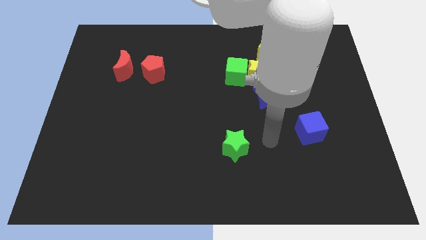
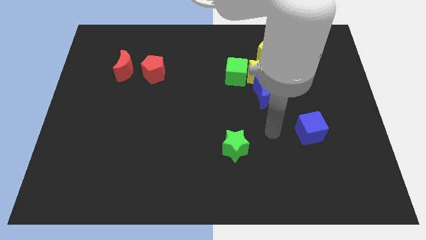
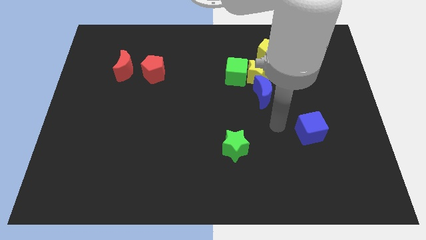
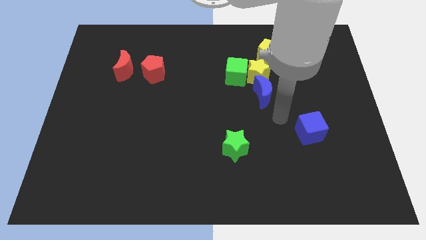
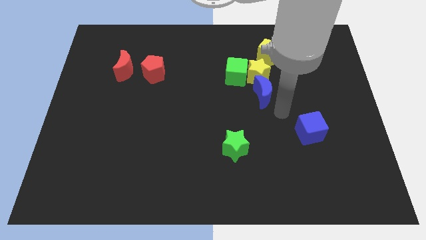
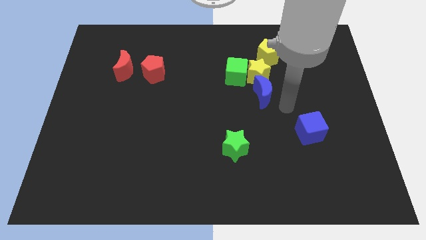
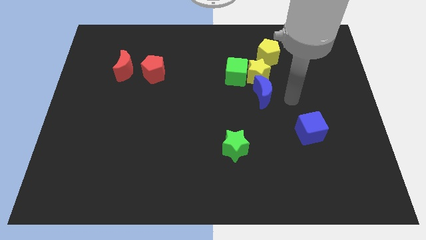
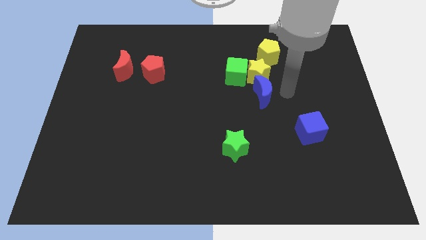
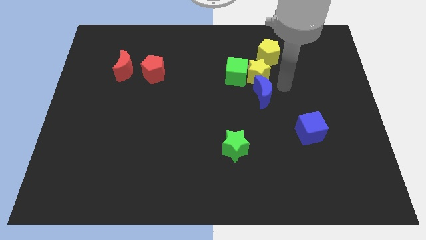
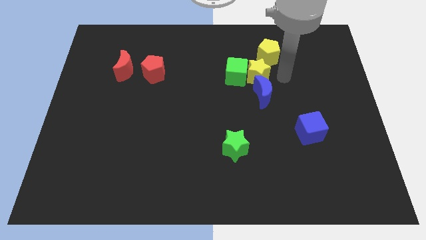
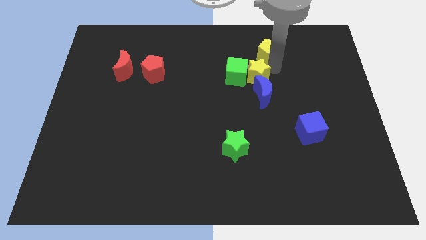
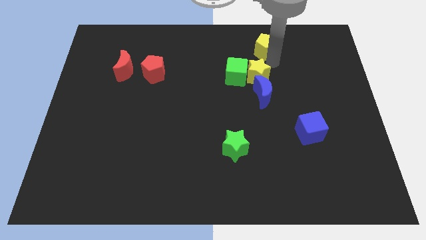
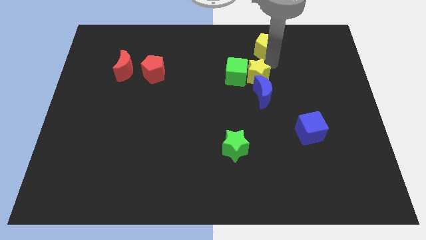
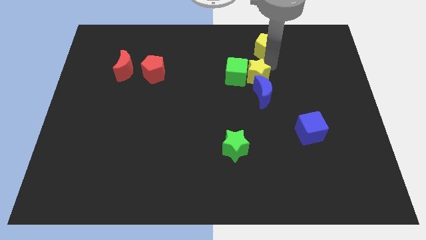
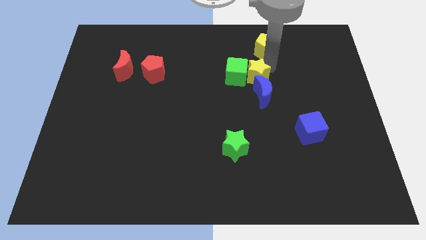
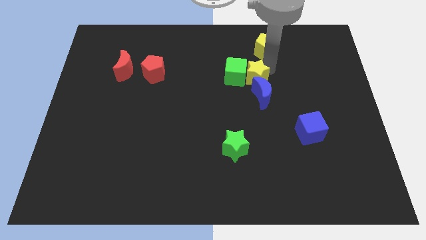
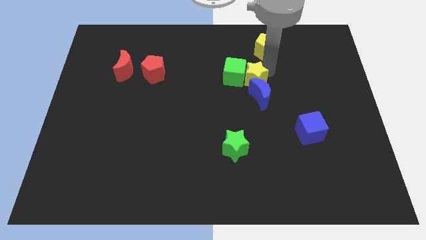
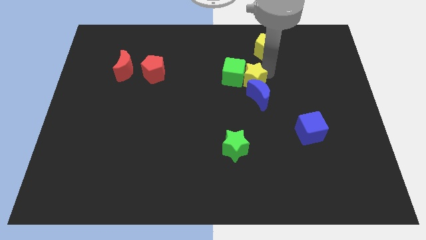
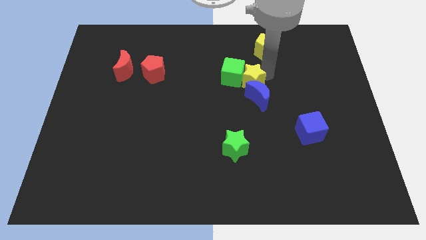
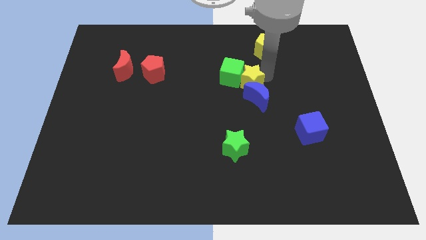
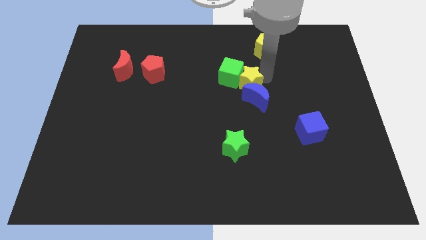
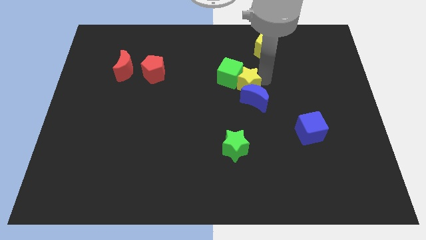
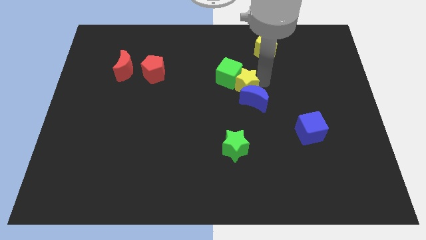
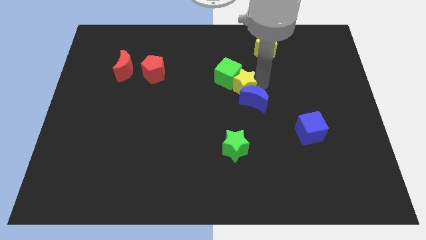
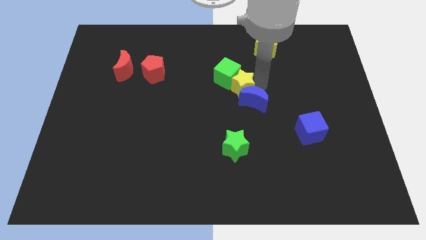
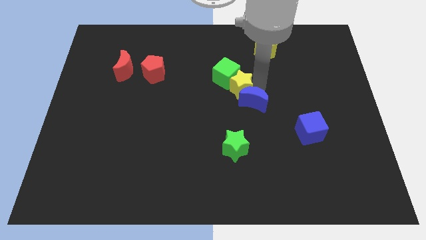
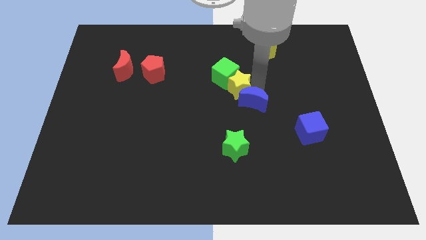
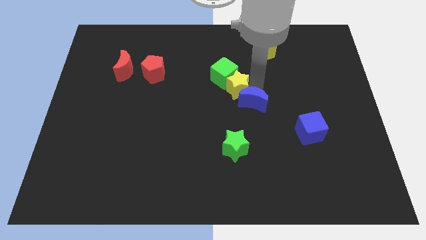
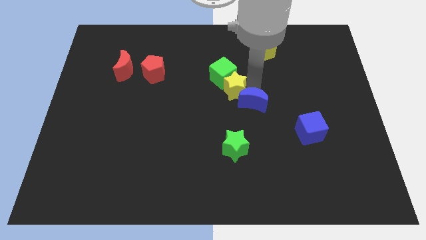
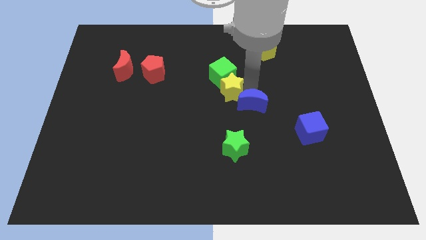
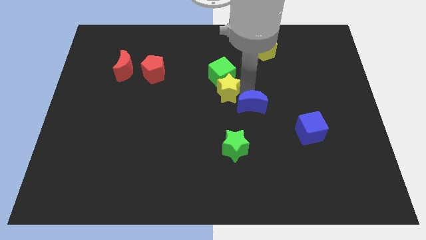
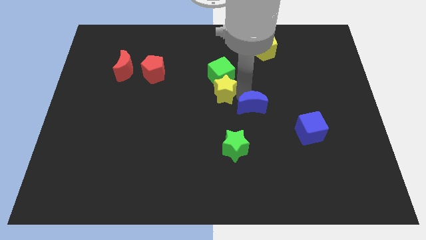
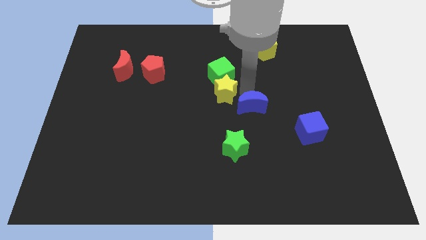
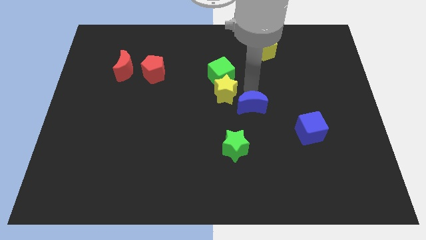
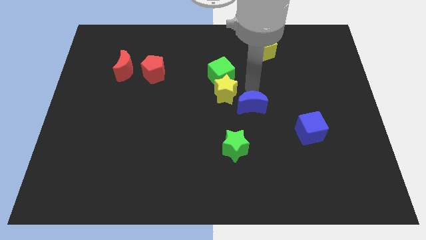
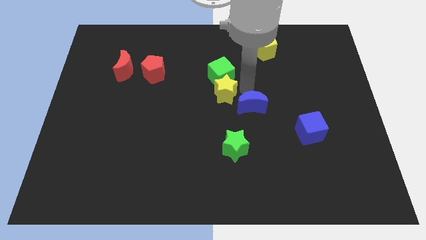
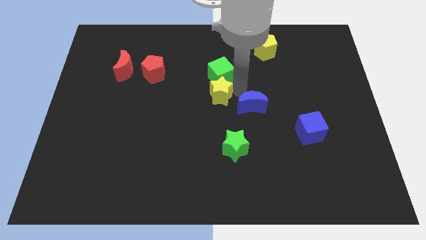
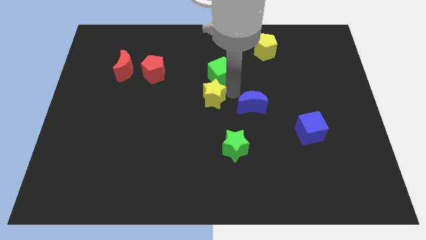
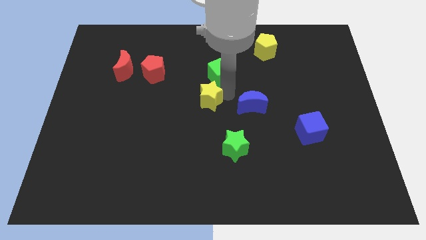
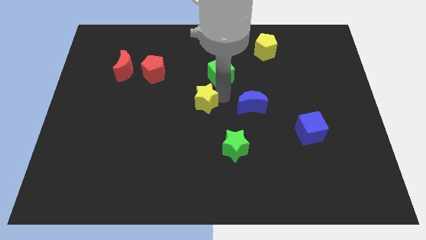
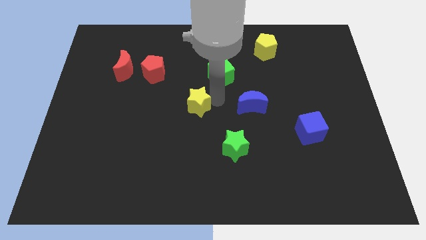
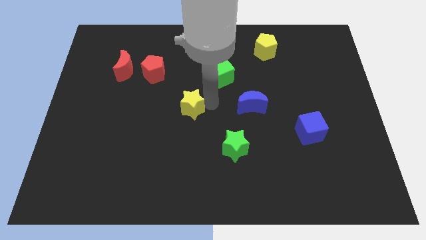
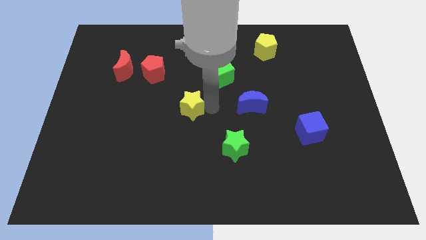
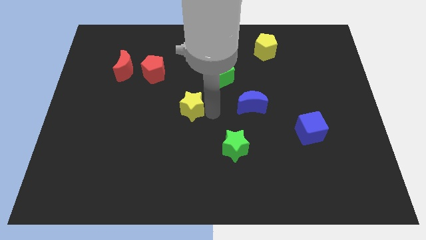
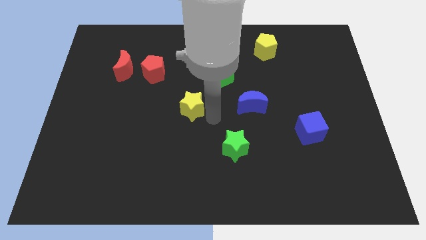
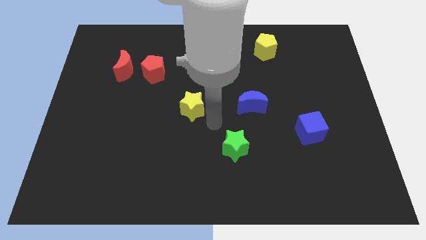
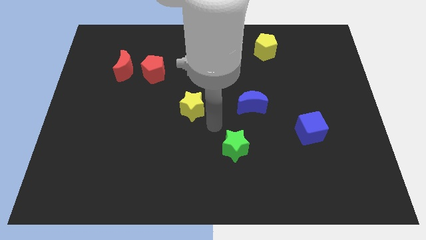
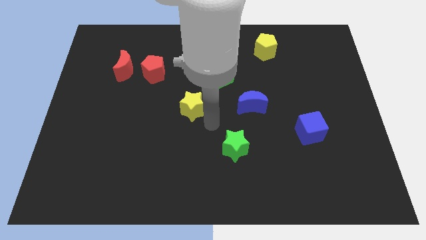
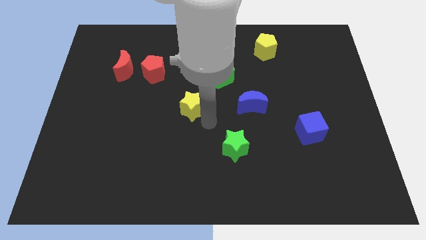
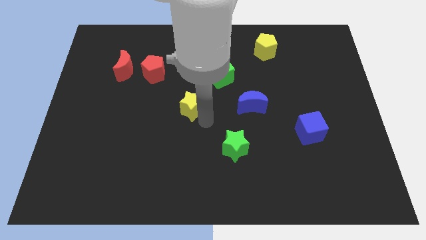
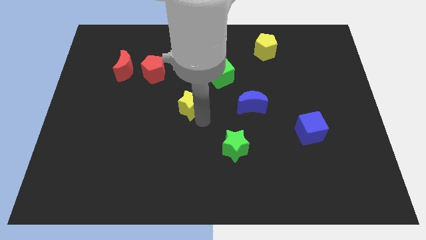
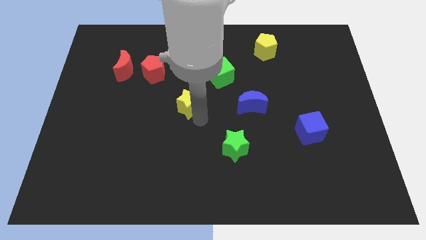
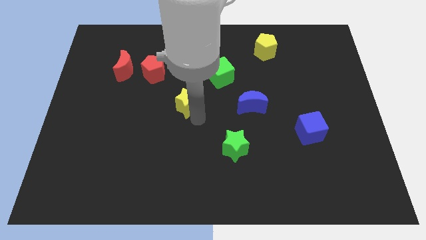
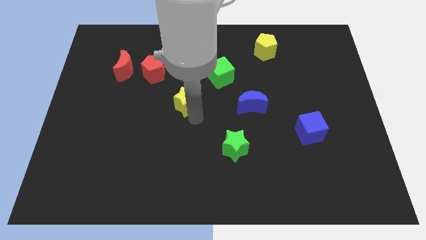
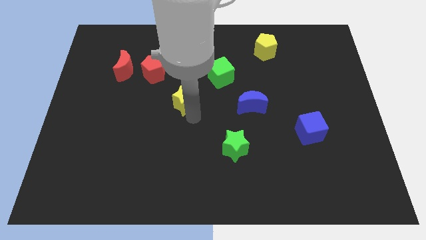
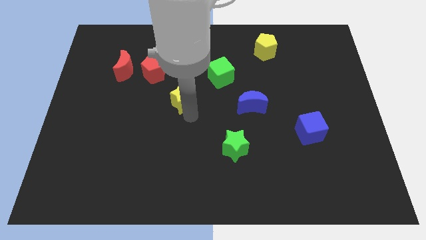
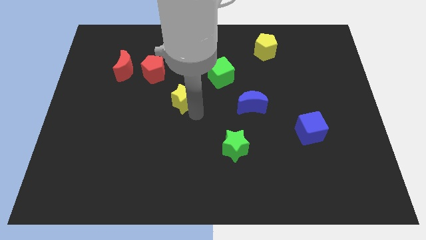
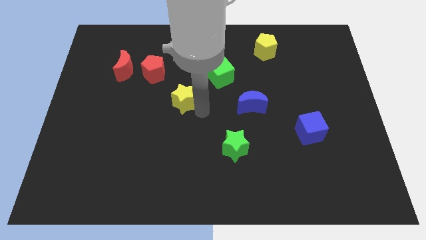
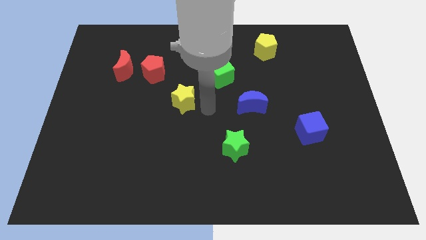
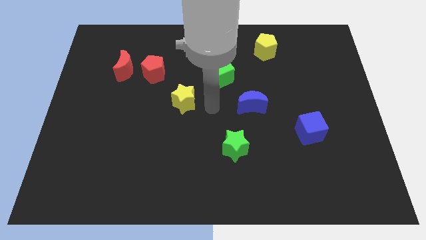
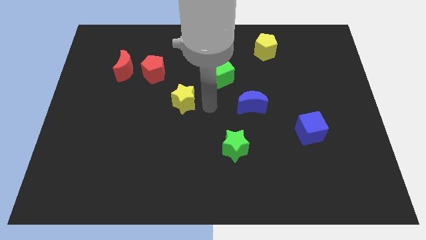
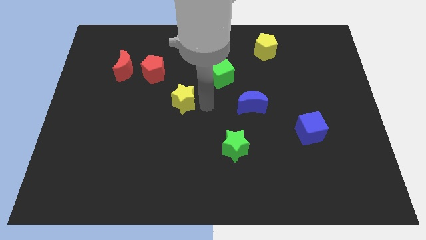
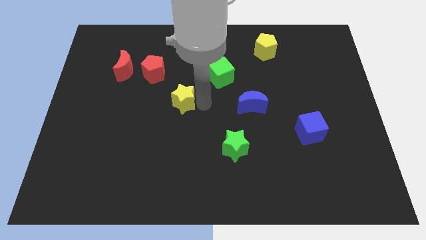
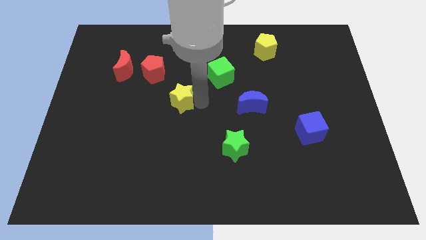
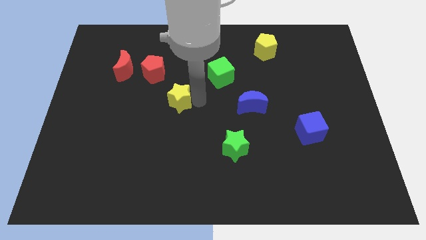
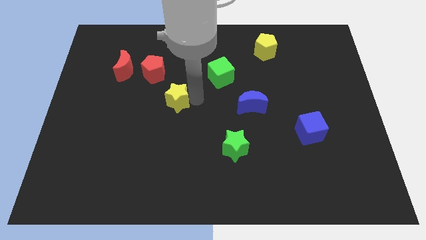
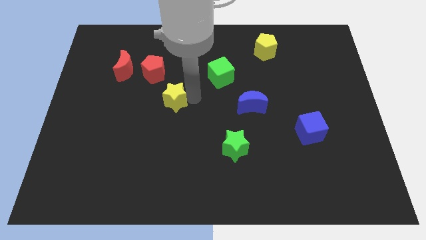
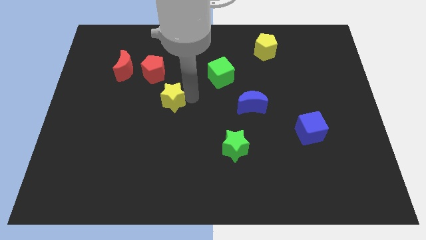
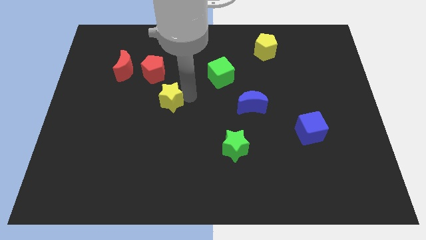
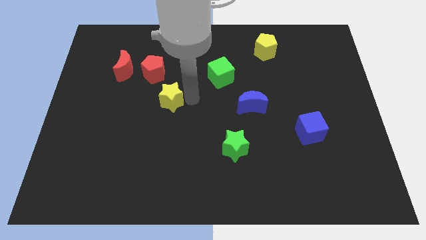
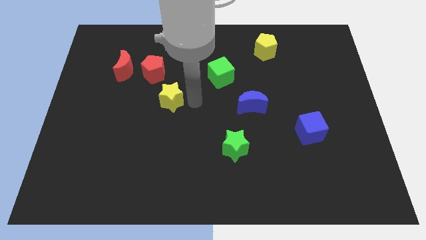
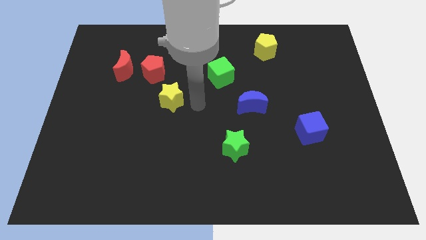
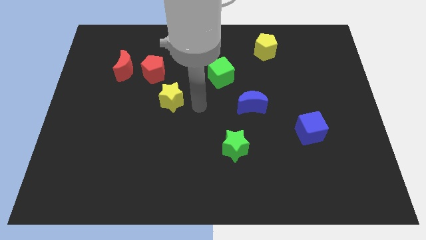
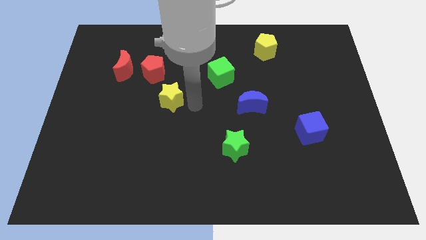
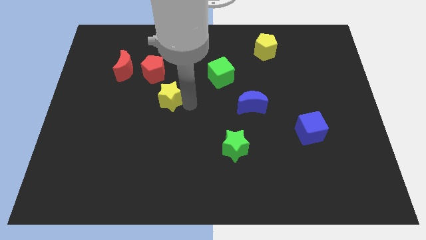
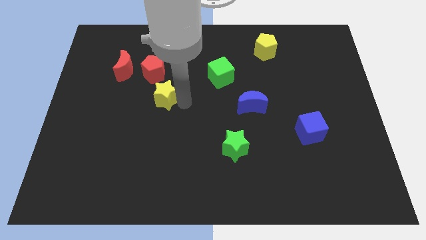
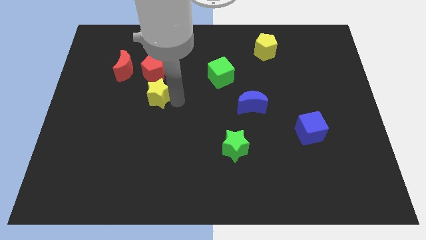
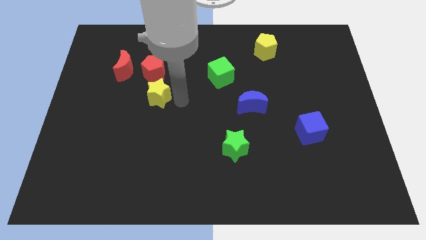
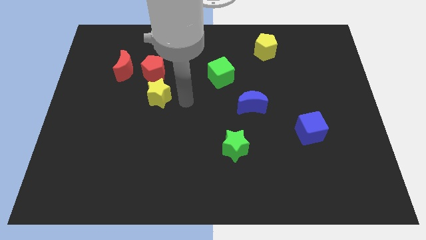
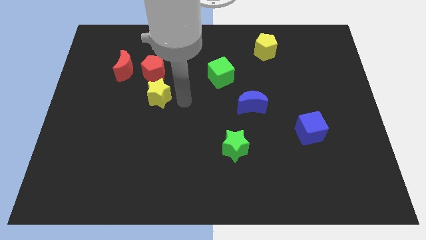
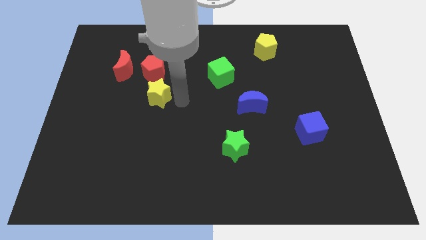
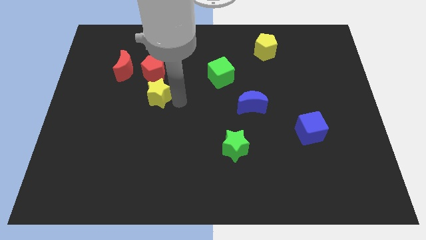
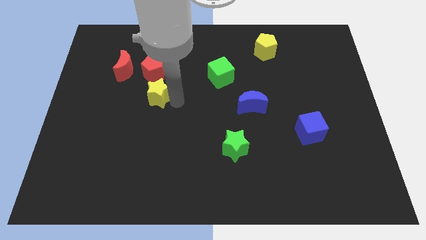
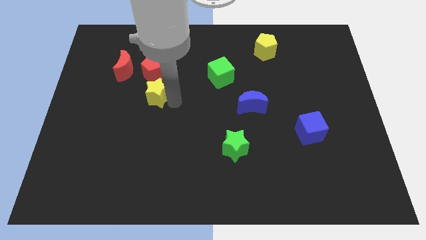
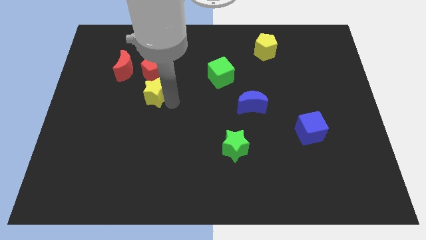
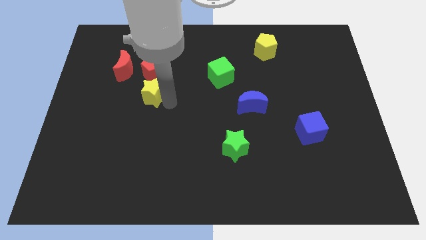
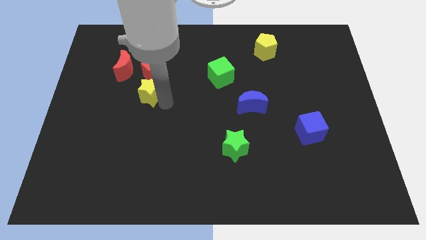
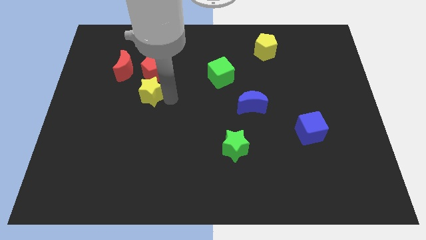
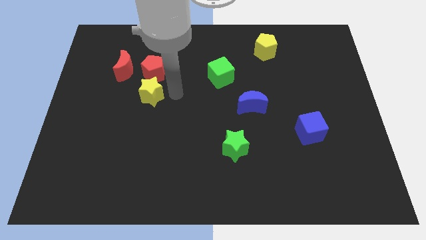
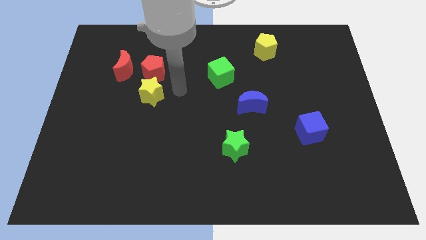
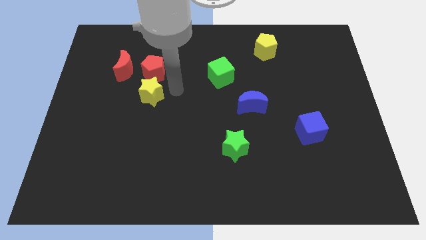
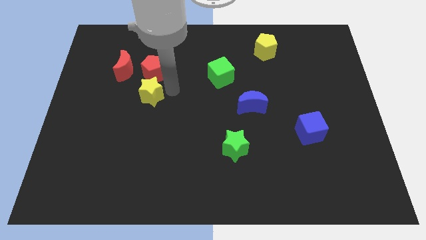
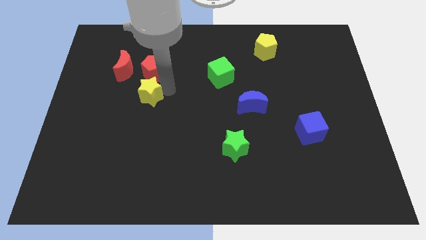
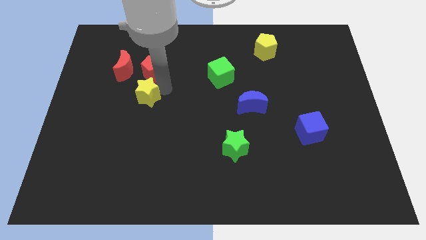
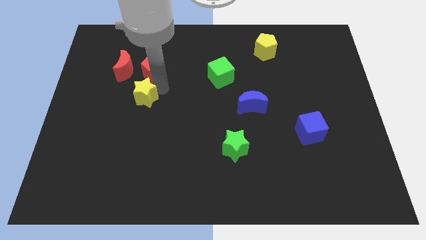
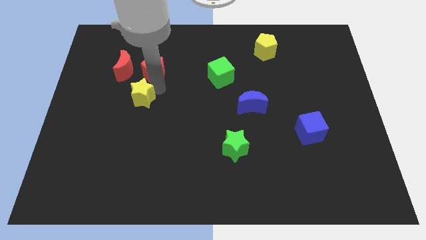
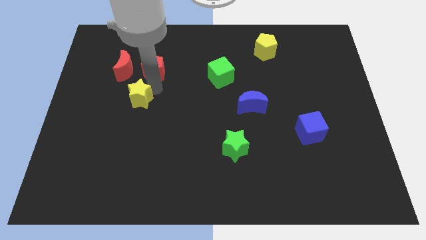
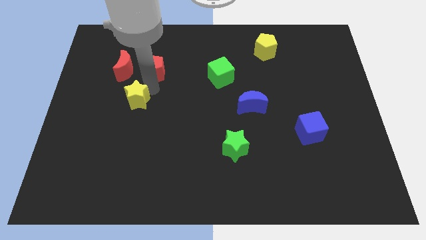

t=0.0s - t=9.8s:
put the yellow star below the red moon
